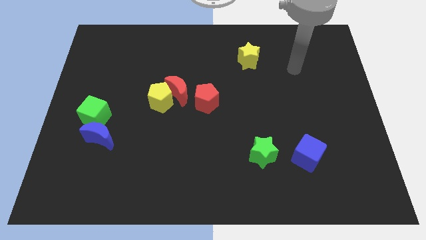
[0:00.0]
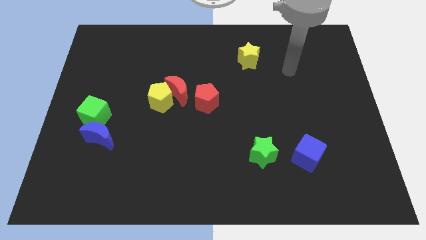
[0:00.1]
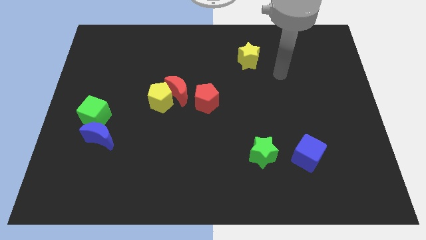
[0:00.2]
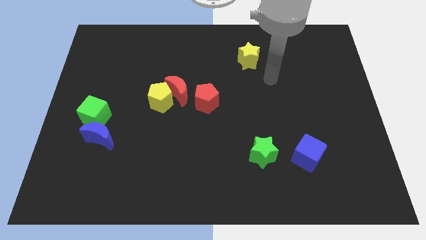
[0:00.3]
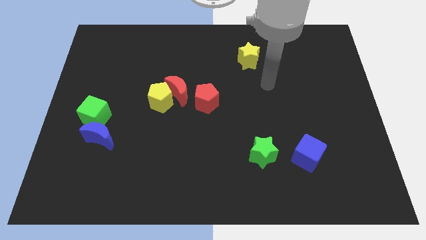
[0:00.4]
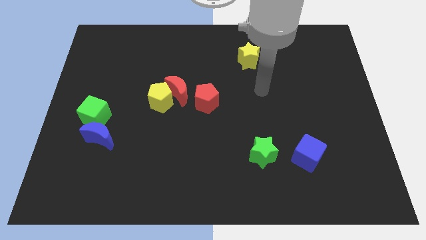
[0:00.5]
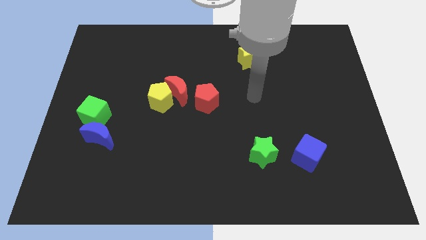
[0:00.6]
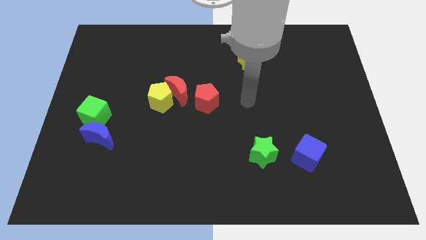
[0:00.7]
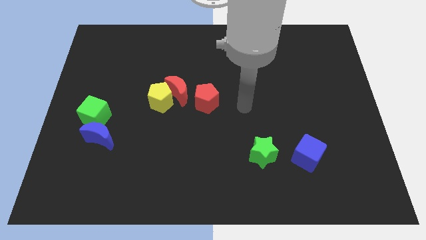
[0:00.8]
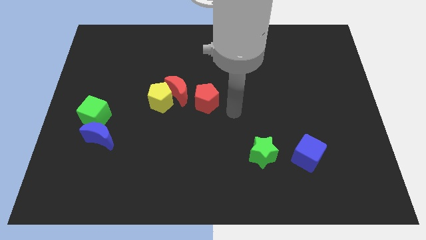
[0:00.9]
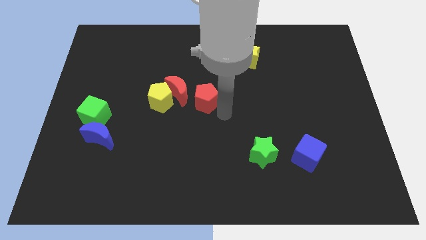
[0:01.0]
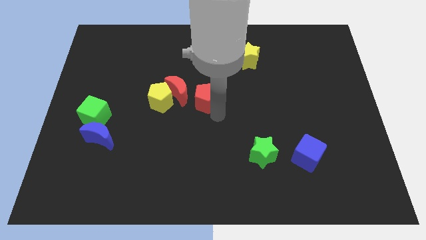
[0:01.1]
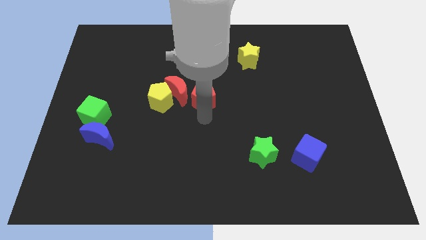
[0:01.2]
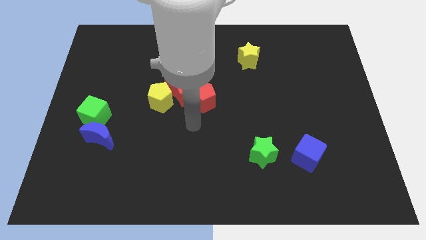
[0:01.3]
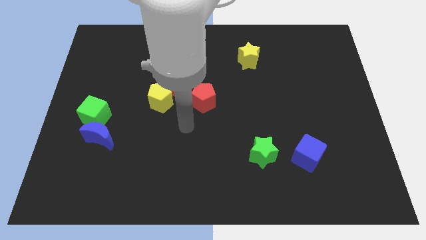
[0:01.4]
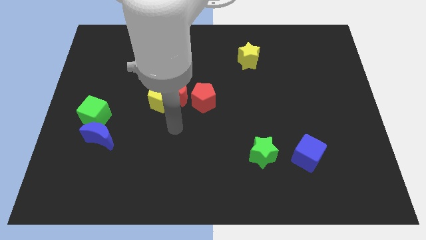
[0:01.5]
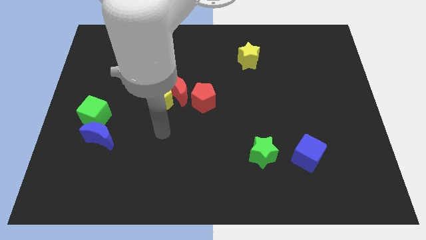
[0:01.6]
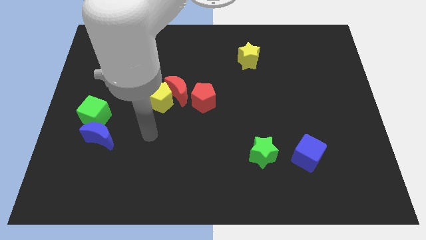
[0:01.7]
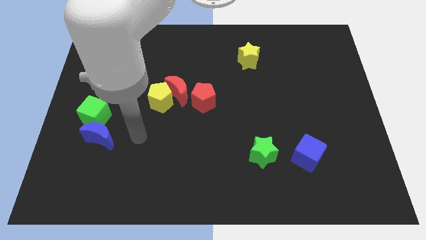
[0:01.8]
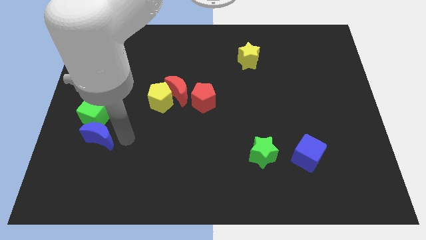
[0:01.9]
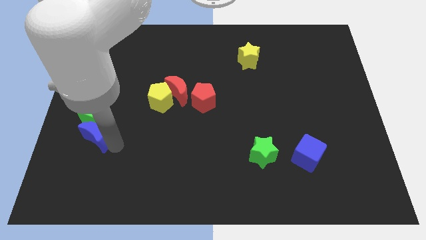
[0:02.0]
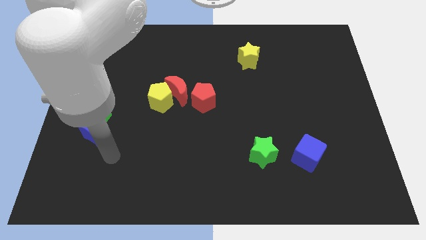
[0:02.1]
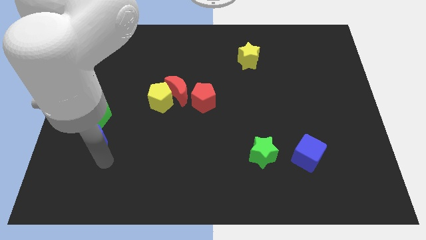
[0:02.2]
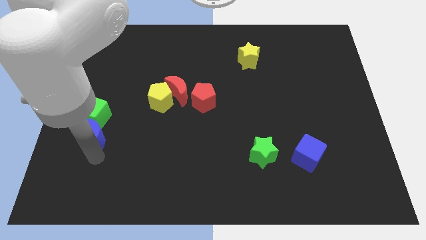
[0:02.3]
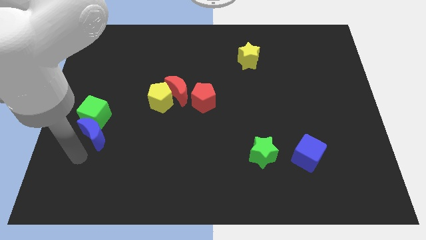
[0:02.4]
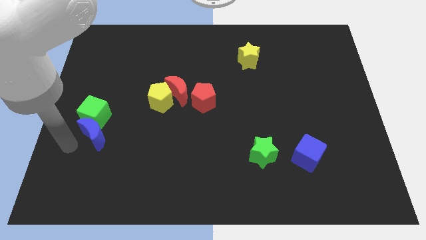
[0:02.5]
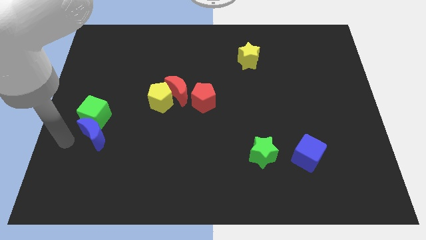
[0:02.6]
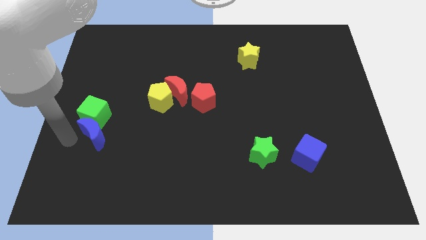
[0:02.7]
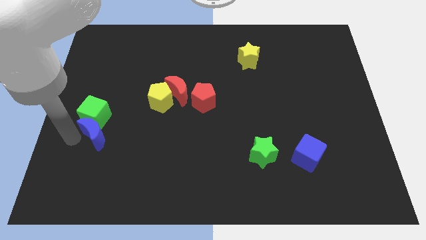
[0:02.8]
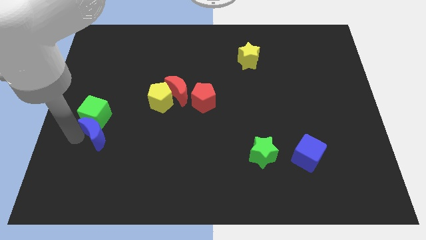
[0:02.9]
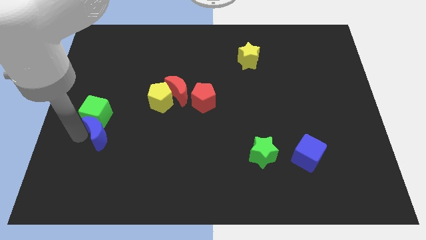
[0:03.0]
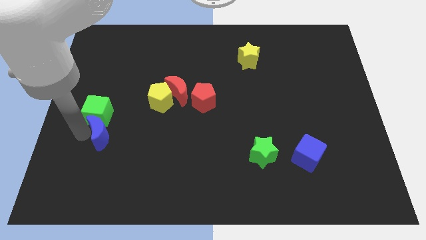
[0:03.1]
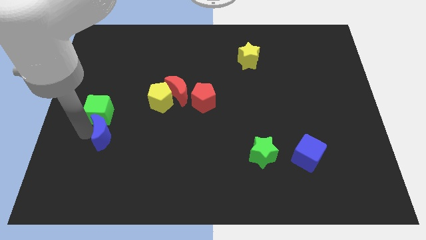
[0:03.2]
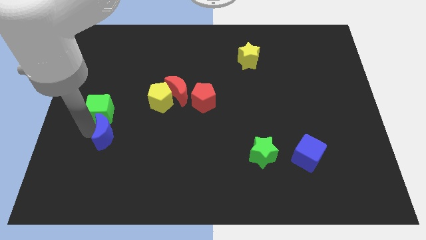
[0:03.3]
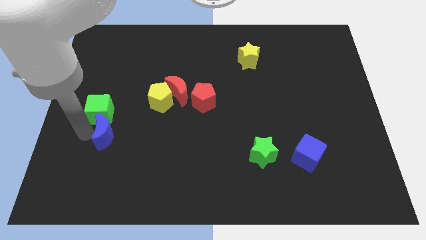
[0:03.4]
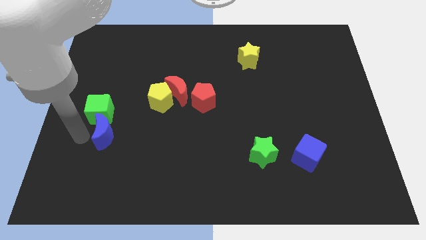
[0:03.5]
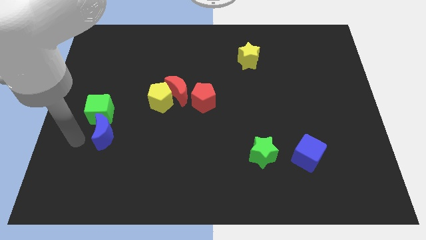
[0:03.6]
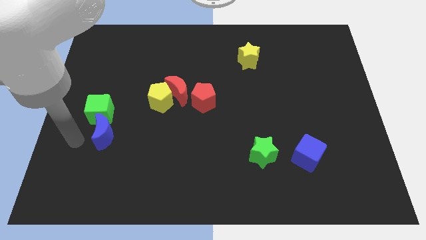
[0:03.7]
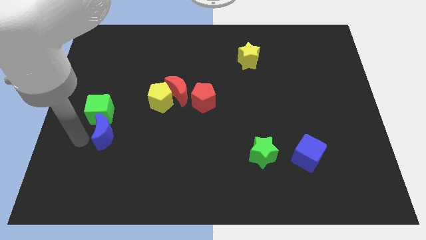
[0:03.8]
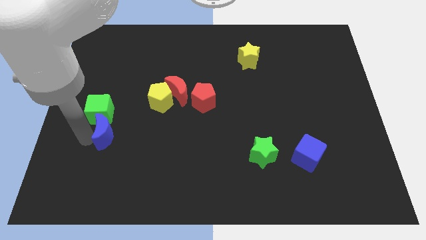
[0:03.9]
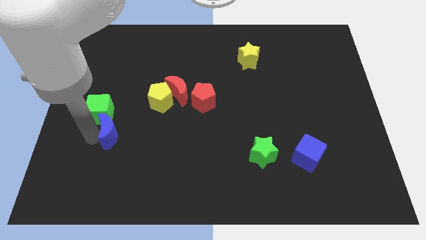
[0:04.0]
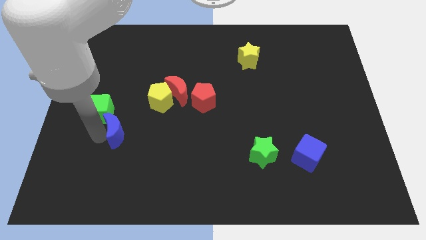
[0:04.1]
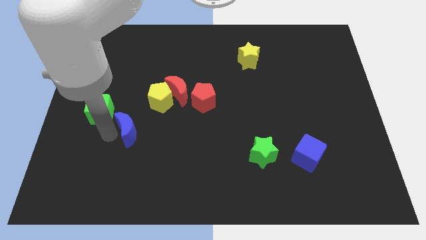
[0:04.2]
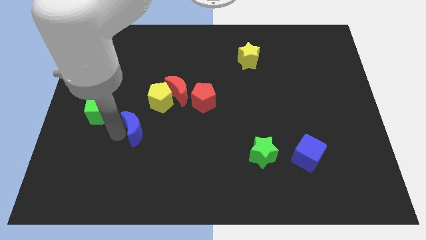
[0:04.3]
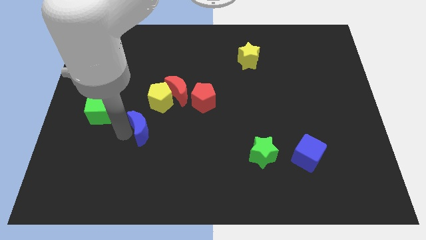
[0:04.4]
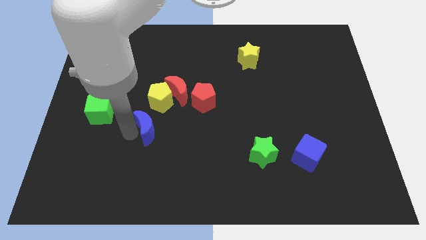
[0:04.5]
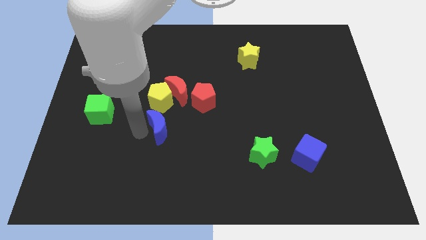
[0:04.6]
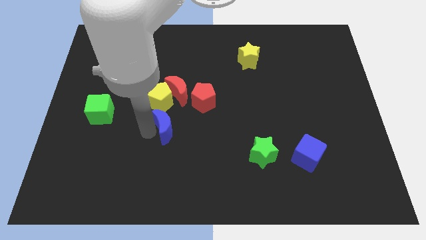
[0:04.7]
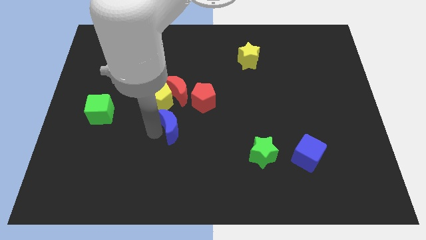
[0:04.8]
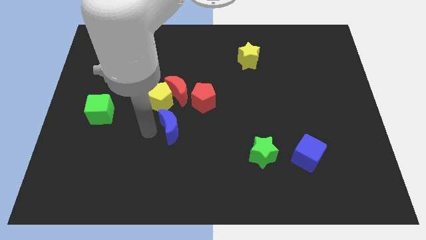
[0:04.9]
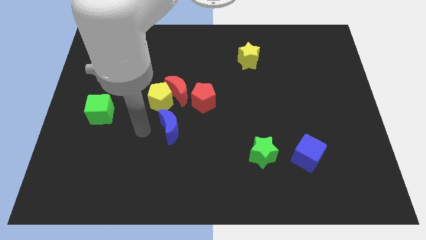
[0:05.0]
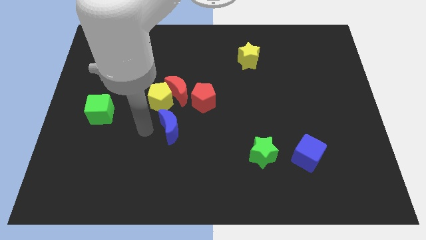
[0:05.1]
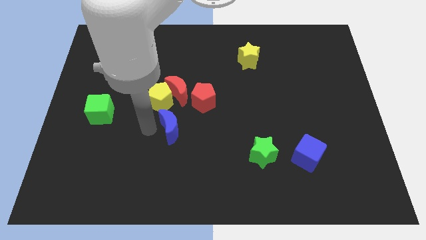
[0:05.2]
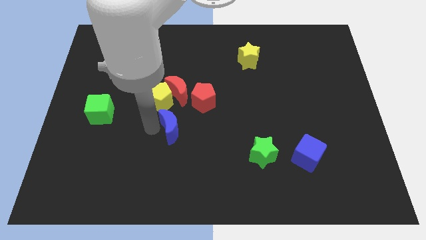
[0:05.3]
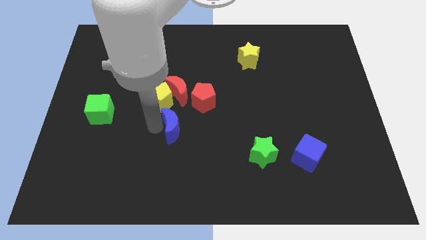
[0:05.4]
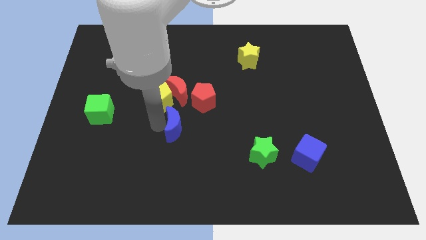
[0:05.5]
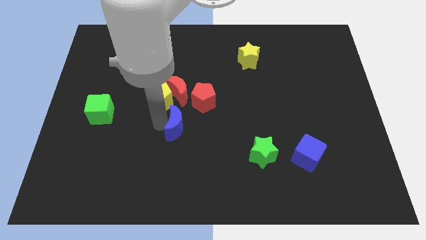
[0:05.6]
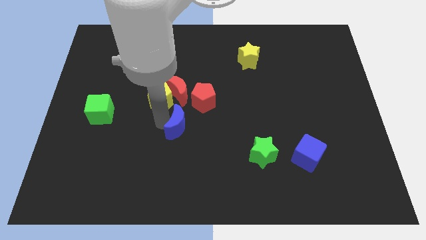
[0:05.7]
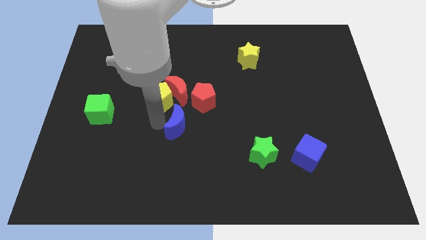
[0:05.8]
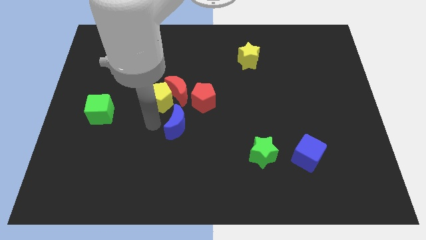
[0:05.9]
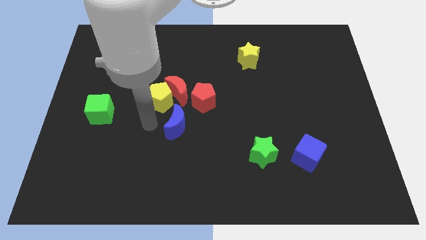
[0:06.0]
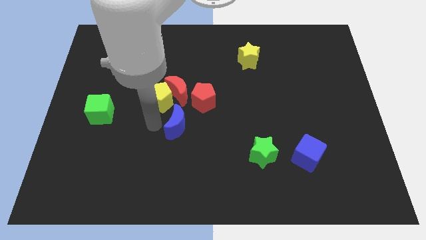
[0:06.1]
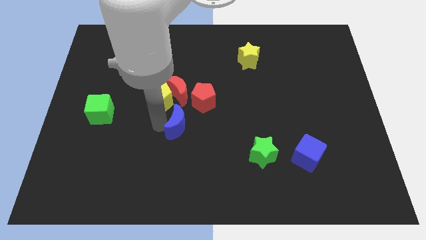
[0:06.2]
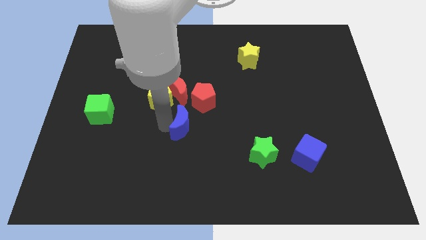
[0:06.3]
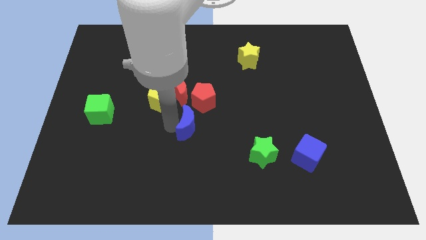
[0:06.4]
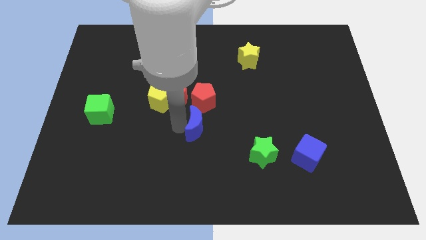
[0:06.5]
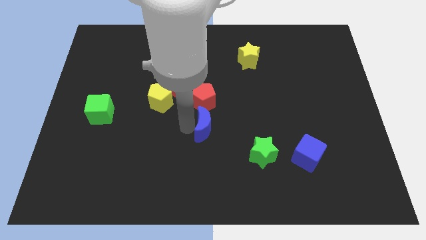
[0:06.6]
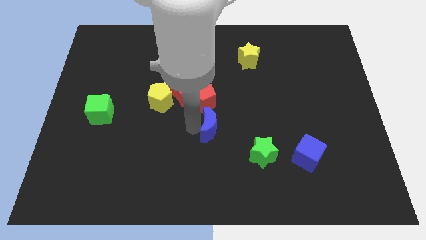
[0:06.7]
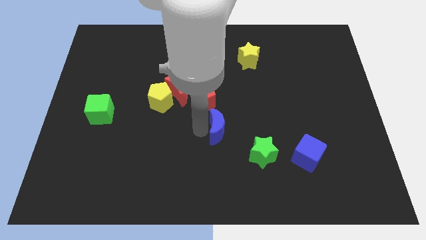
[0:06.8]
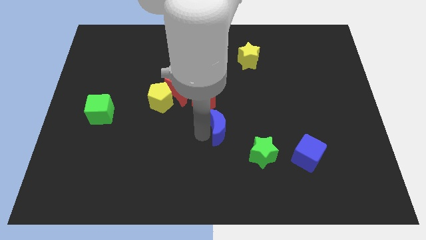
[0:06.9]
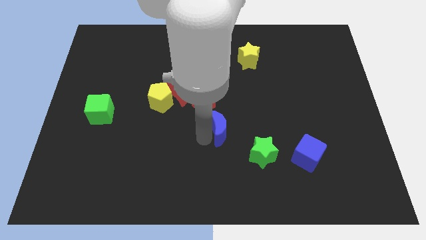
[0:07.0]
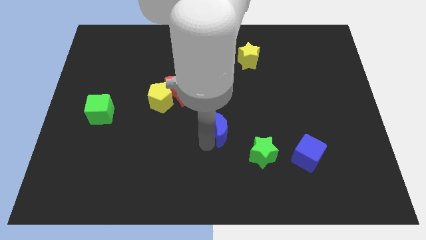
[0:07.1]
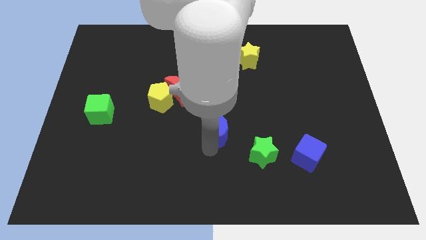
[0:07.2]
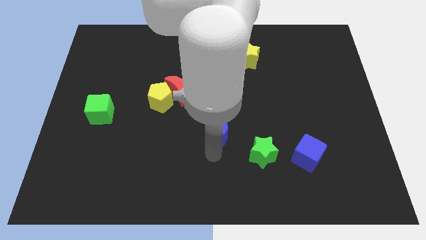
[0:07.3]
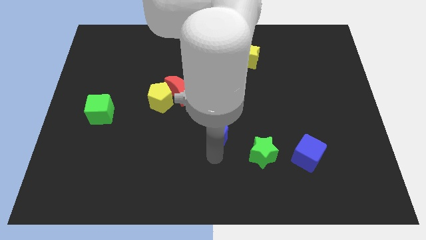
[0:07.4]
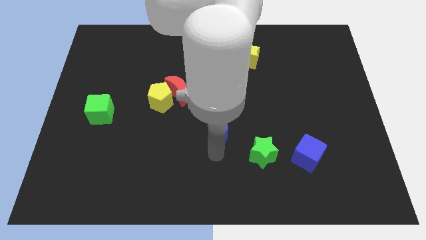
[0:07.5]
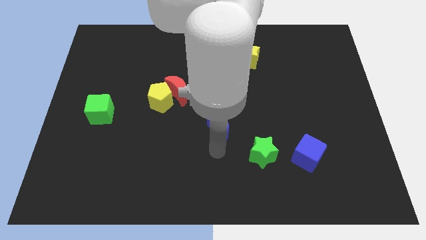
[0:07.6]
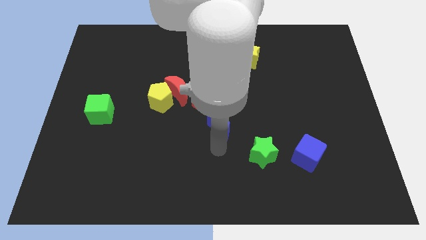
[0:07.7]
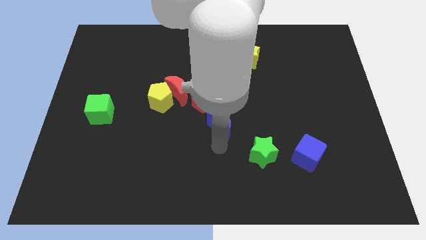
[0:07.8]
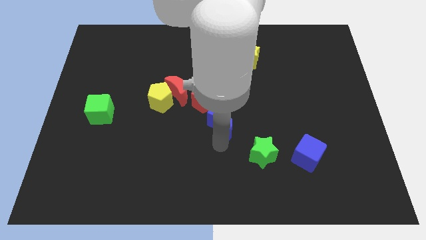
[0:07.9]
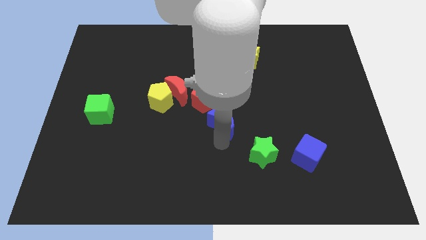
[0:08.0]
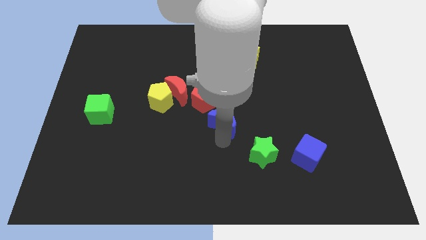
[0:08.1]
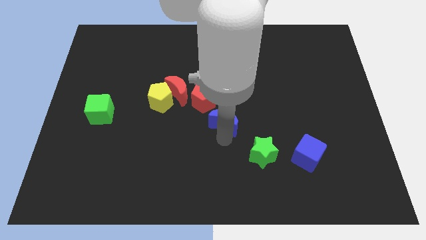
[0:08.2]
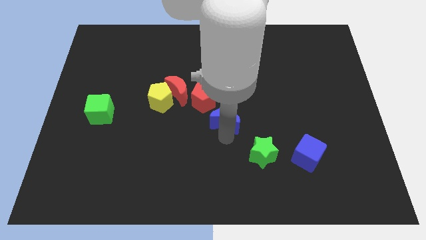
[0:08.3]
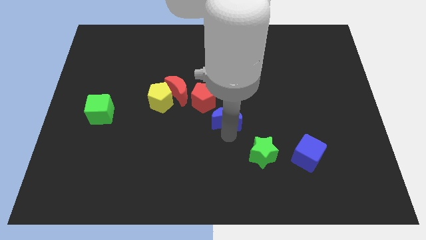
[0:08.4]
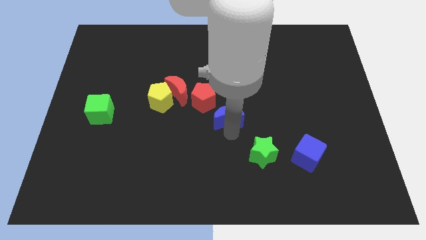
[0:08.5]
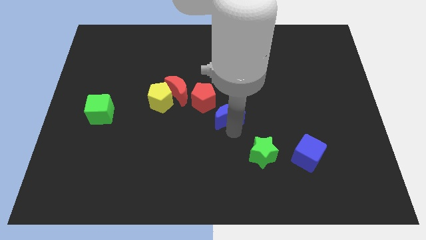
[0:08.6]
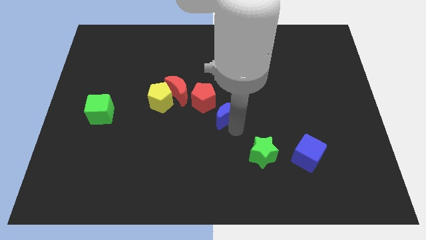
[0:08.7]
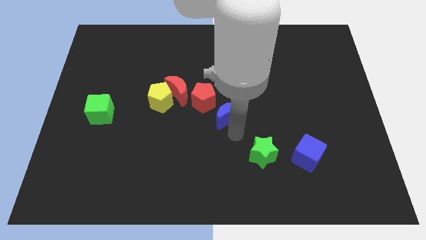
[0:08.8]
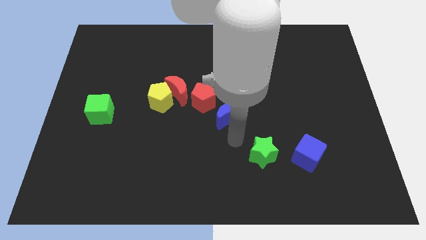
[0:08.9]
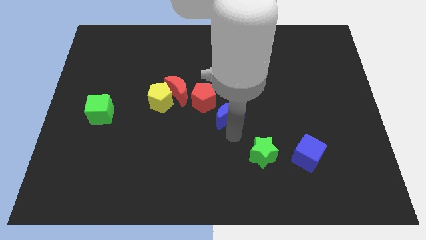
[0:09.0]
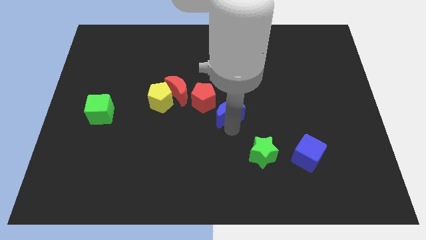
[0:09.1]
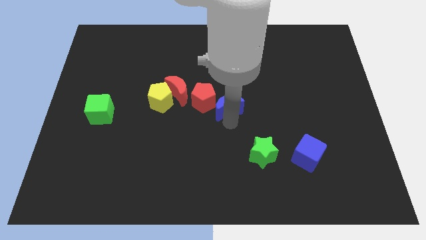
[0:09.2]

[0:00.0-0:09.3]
put the blue moon right of the red moon
